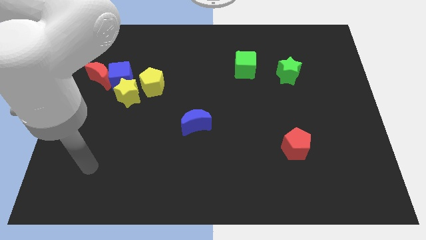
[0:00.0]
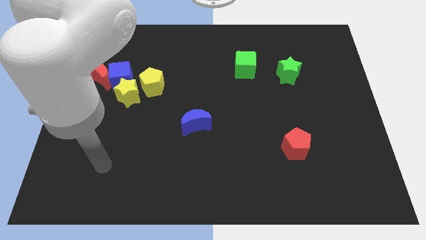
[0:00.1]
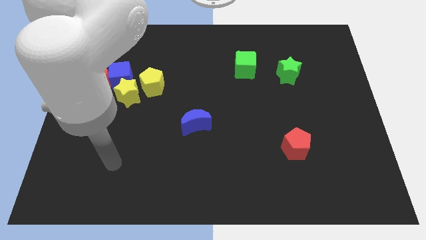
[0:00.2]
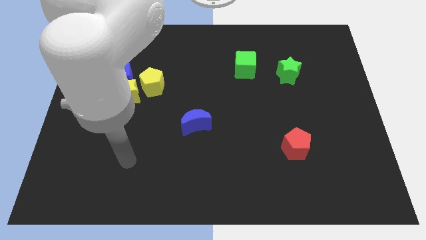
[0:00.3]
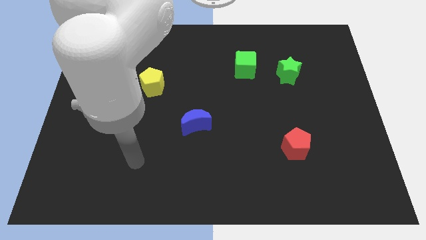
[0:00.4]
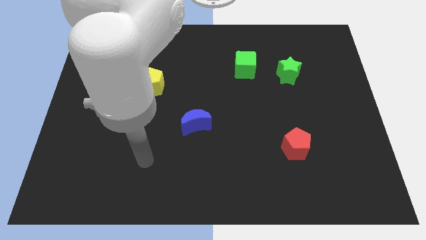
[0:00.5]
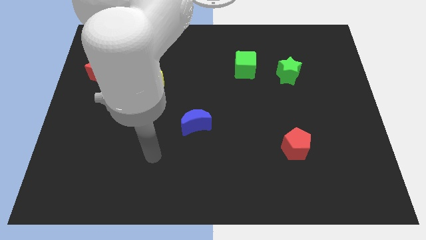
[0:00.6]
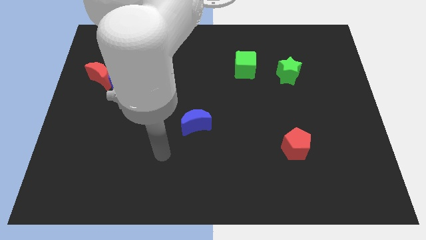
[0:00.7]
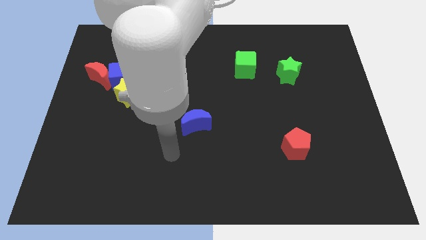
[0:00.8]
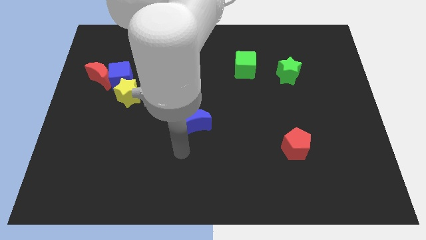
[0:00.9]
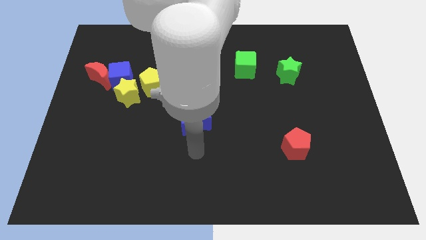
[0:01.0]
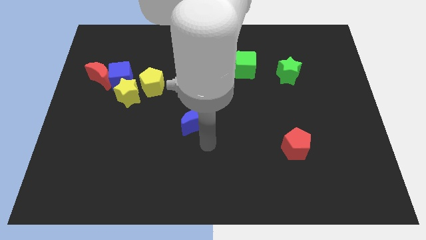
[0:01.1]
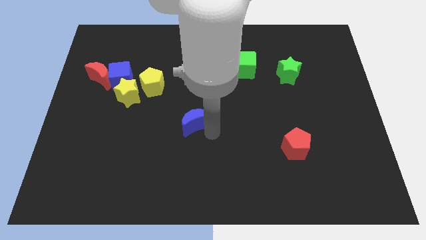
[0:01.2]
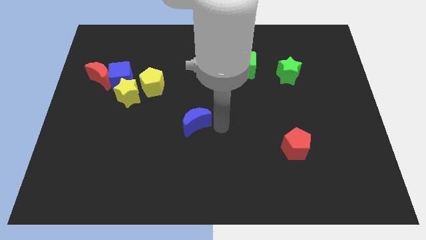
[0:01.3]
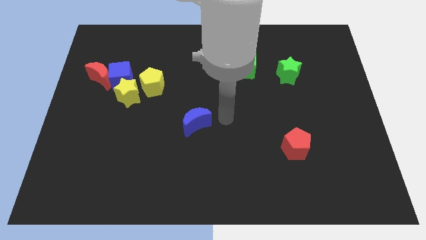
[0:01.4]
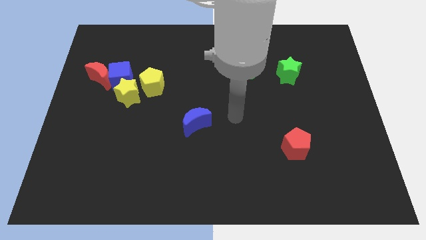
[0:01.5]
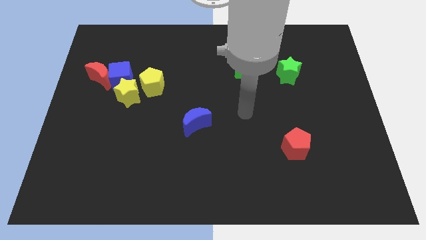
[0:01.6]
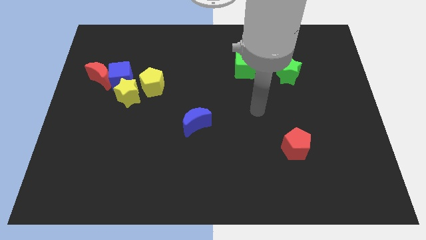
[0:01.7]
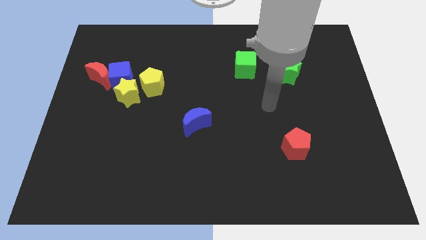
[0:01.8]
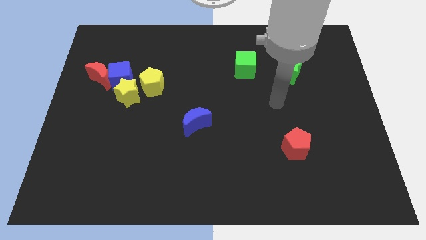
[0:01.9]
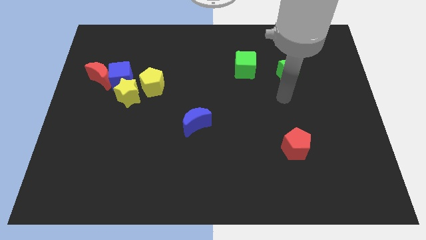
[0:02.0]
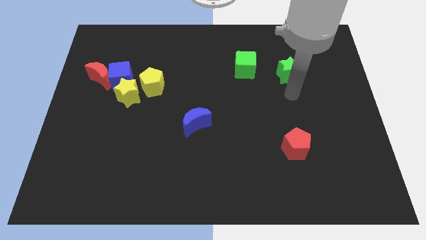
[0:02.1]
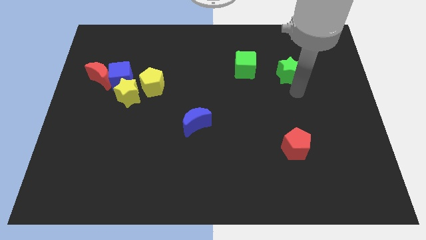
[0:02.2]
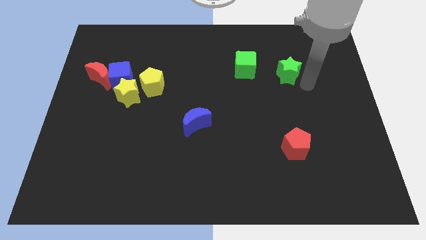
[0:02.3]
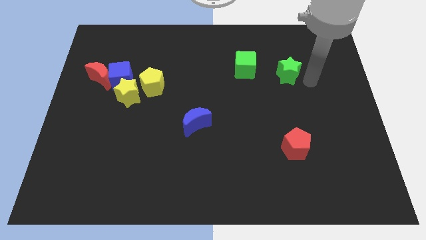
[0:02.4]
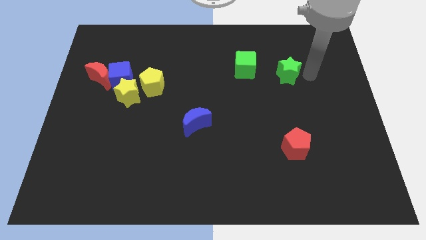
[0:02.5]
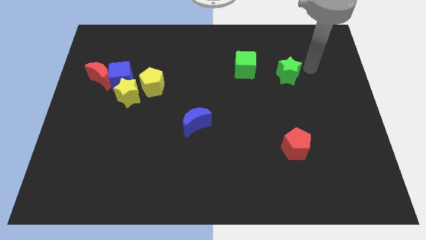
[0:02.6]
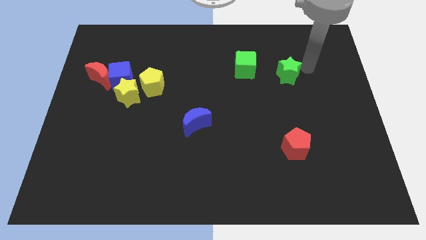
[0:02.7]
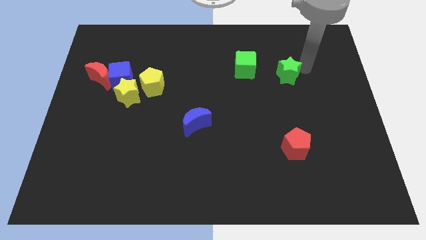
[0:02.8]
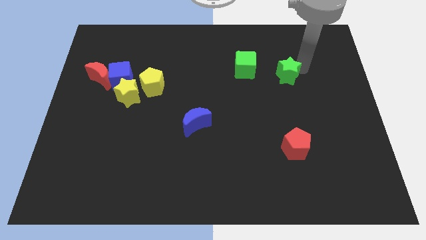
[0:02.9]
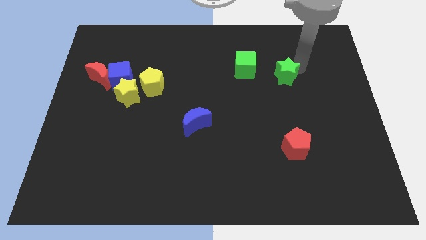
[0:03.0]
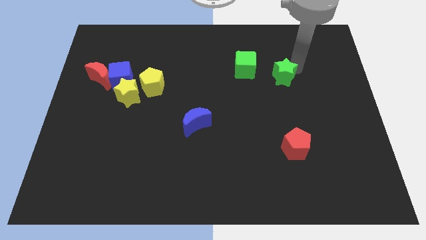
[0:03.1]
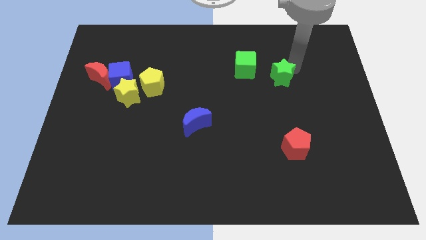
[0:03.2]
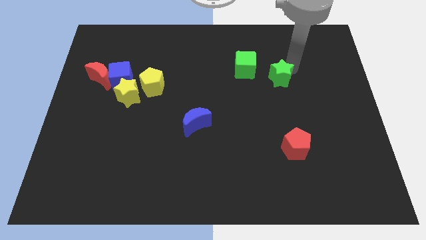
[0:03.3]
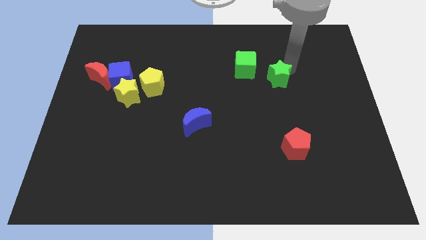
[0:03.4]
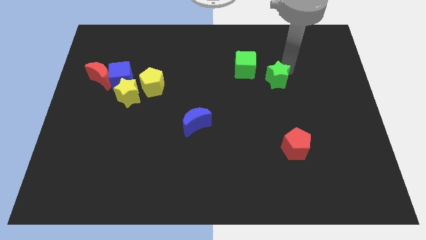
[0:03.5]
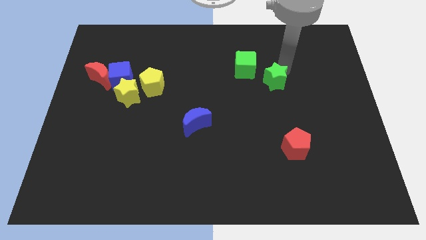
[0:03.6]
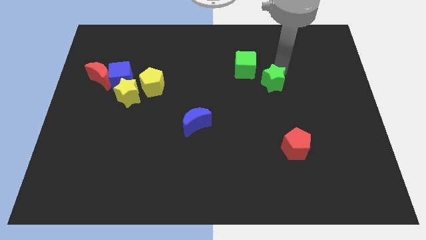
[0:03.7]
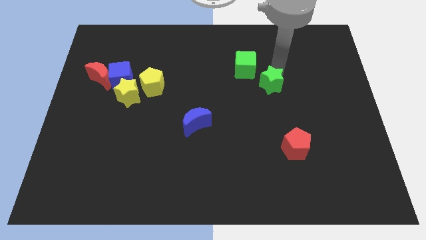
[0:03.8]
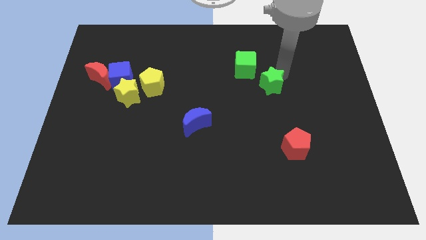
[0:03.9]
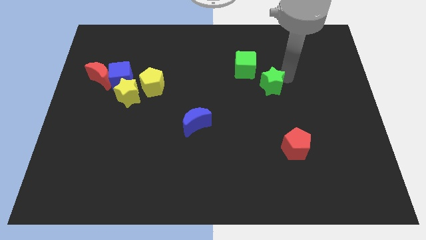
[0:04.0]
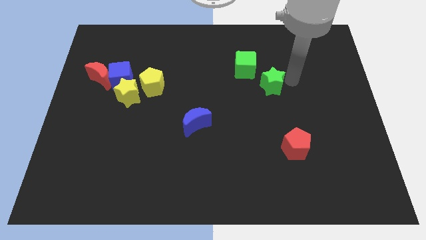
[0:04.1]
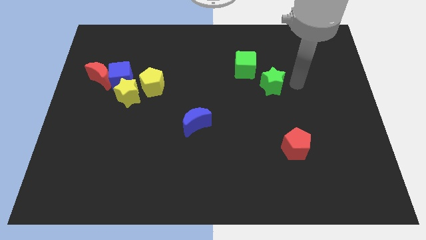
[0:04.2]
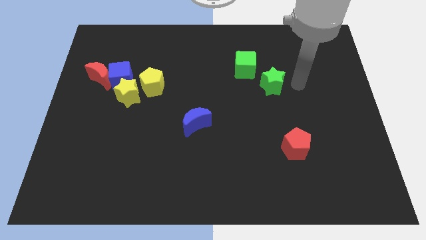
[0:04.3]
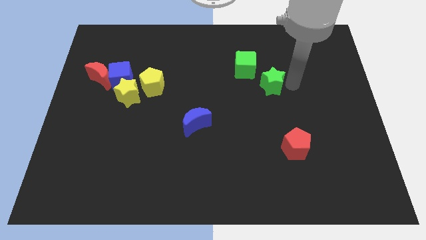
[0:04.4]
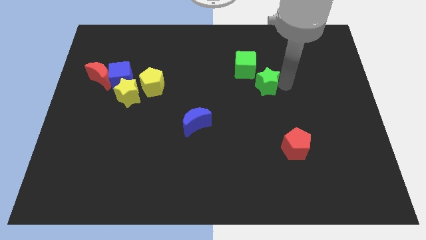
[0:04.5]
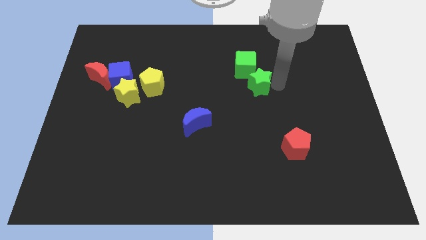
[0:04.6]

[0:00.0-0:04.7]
push the green star a little bit left

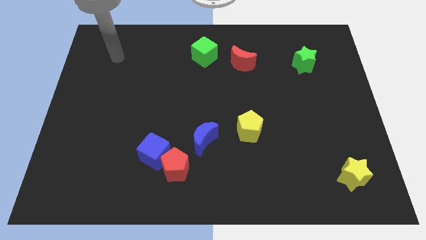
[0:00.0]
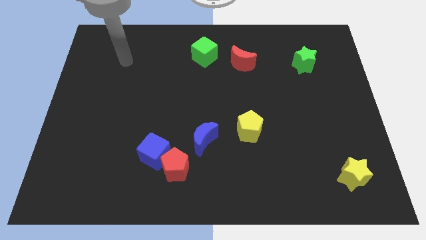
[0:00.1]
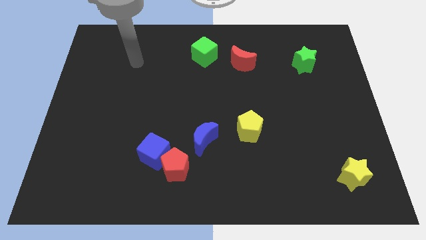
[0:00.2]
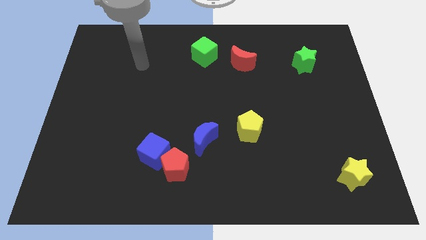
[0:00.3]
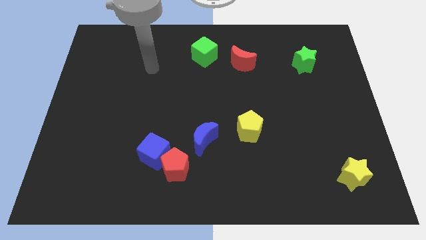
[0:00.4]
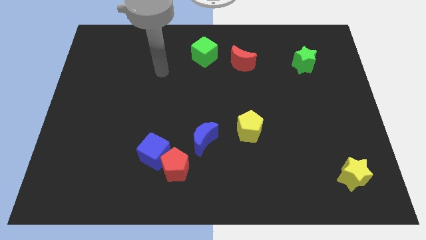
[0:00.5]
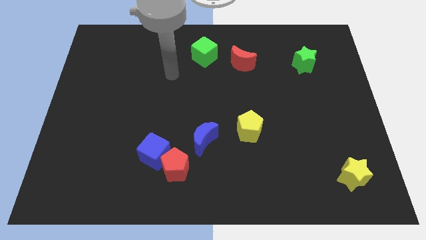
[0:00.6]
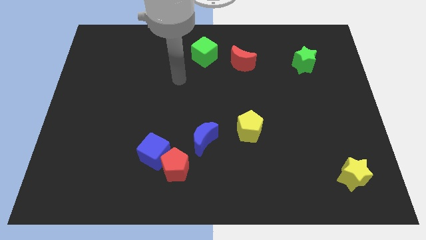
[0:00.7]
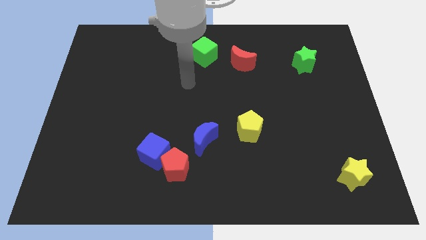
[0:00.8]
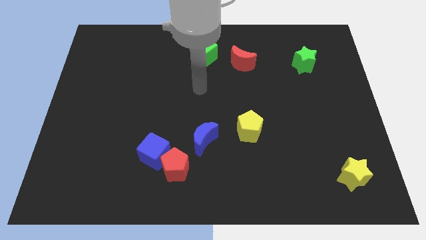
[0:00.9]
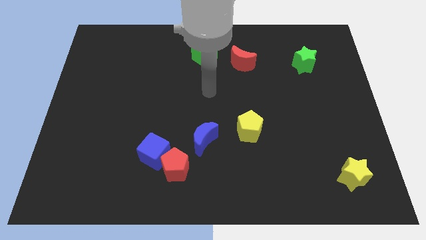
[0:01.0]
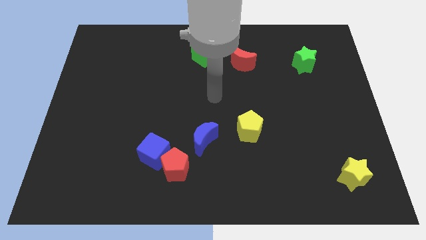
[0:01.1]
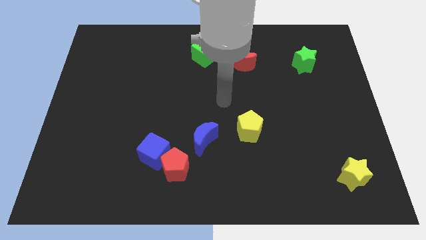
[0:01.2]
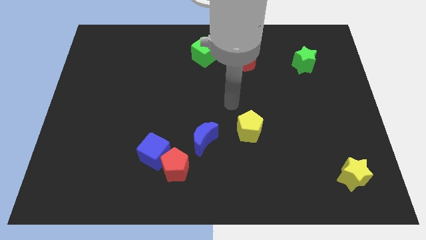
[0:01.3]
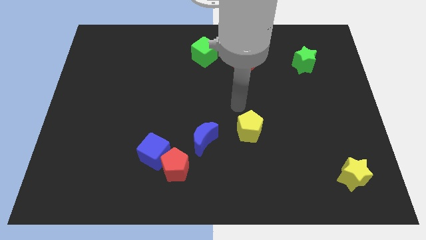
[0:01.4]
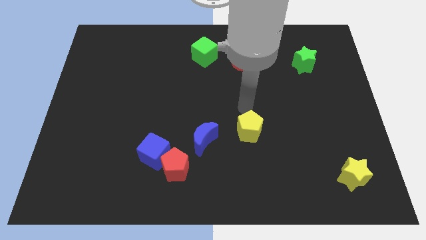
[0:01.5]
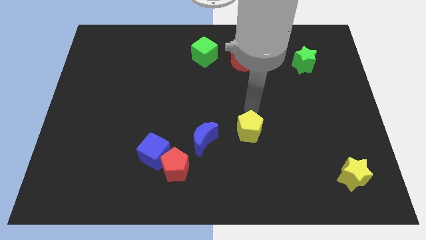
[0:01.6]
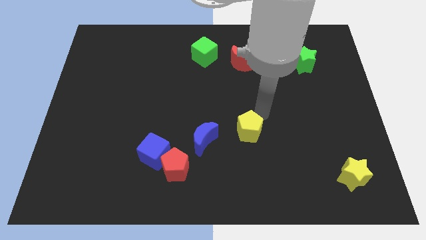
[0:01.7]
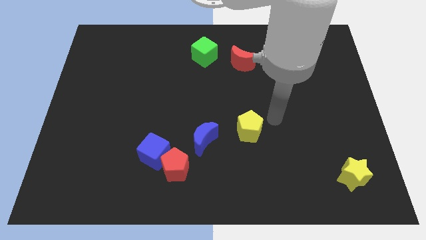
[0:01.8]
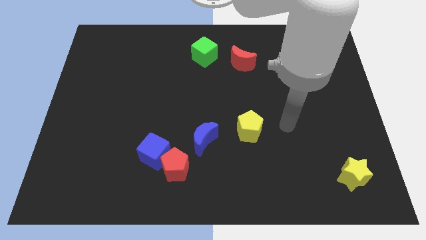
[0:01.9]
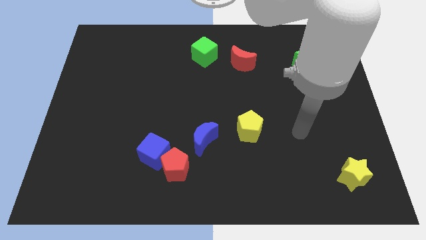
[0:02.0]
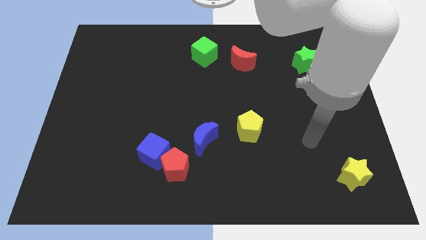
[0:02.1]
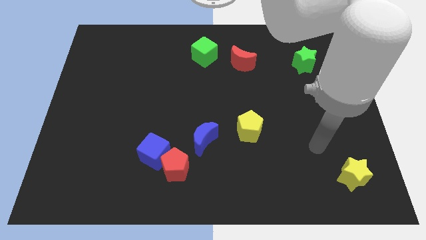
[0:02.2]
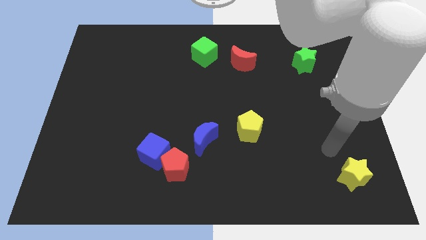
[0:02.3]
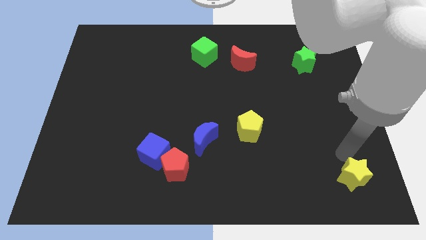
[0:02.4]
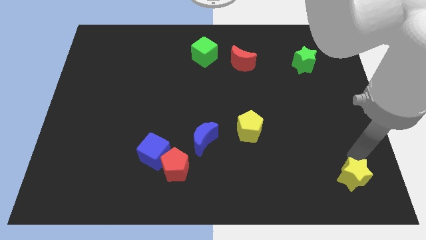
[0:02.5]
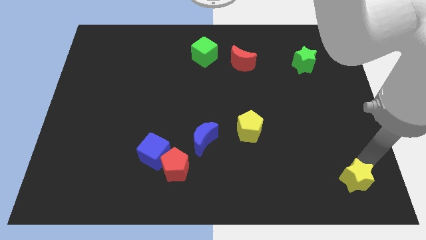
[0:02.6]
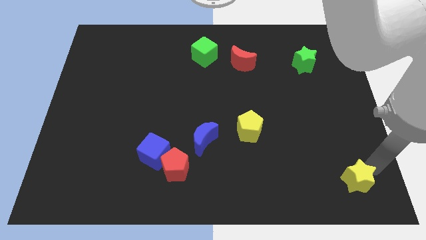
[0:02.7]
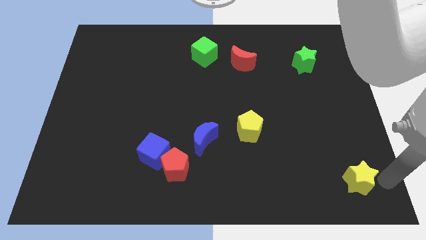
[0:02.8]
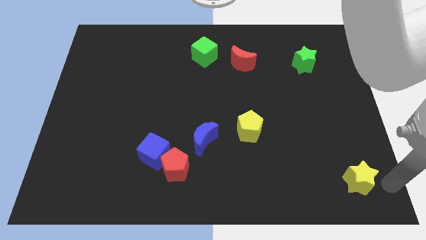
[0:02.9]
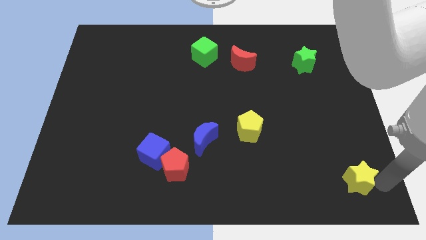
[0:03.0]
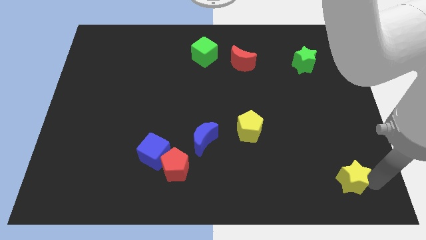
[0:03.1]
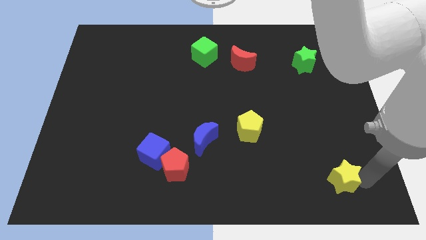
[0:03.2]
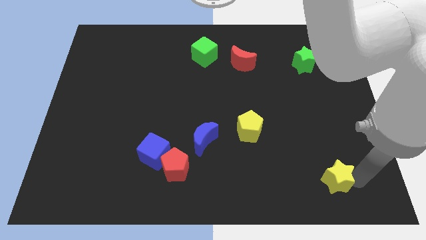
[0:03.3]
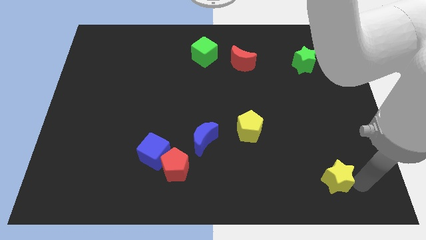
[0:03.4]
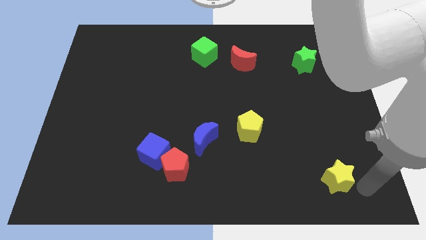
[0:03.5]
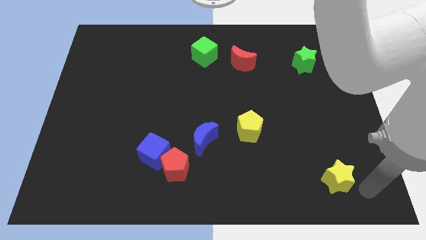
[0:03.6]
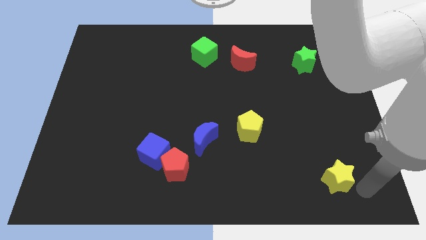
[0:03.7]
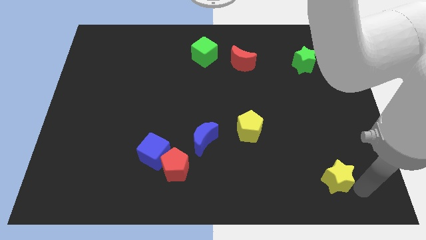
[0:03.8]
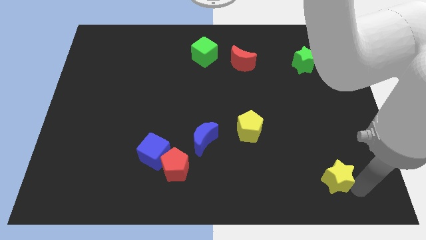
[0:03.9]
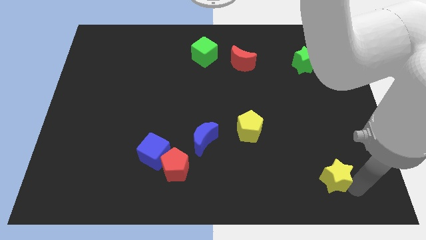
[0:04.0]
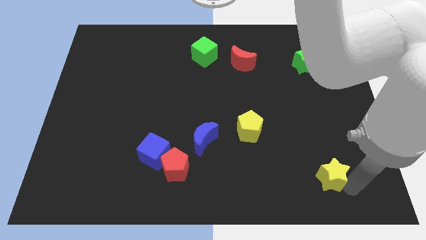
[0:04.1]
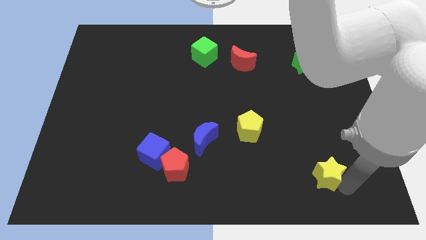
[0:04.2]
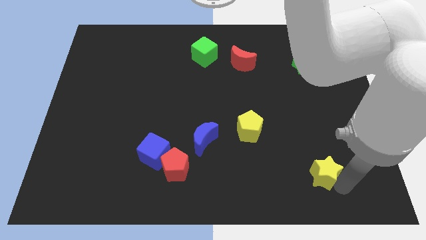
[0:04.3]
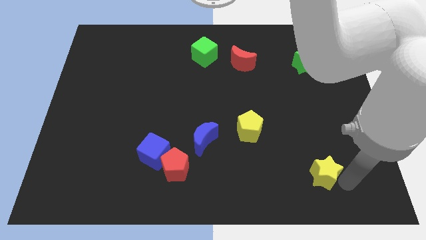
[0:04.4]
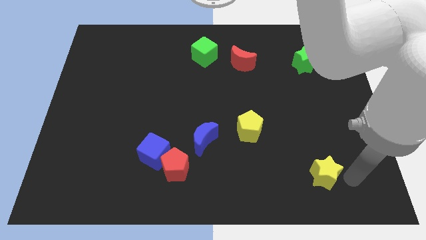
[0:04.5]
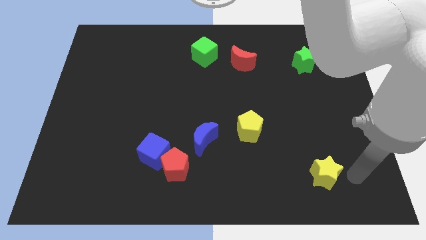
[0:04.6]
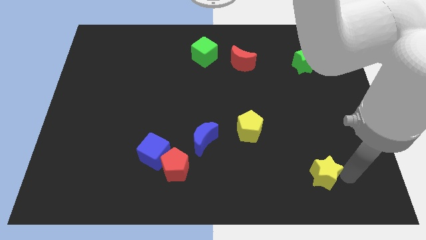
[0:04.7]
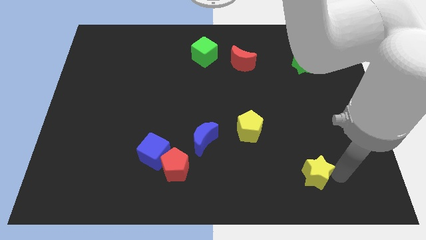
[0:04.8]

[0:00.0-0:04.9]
move the yellow star left a little bit
